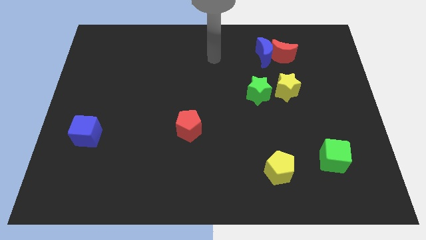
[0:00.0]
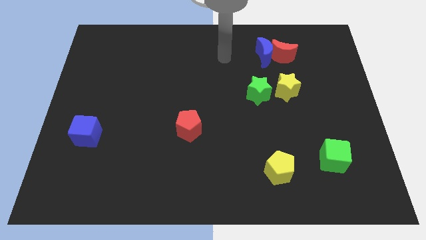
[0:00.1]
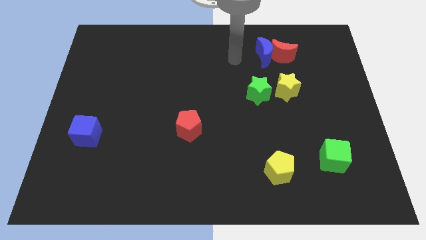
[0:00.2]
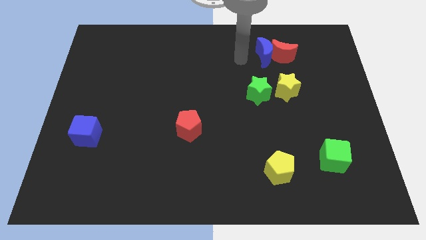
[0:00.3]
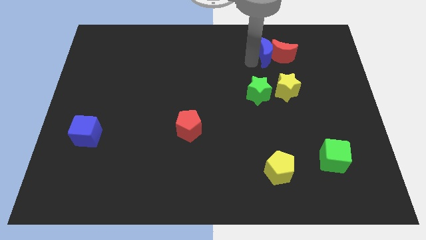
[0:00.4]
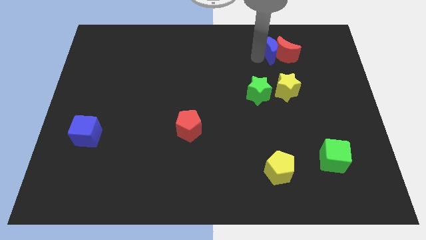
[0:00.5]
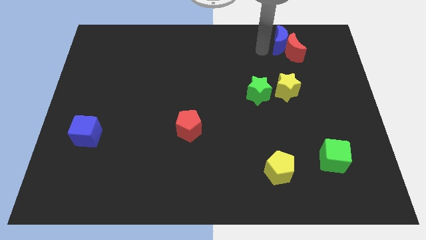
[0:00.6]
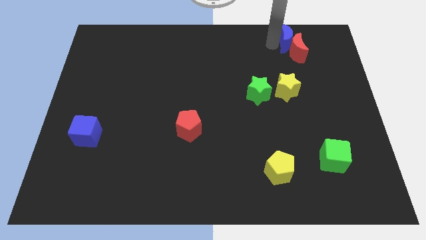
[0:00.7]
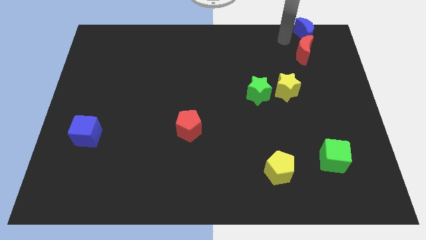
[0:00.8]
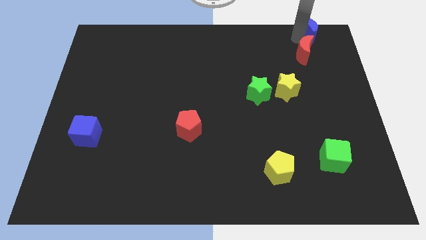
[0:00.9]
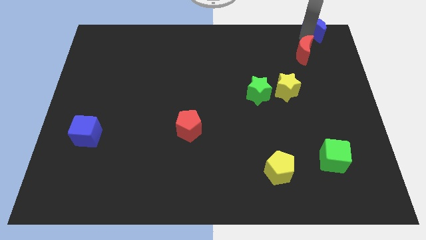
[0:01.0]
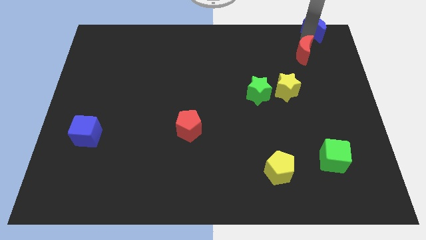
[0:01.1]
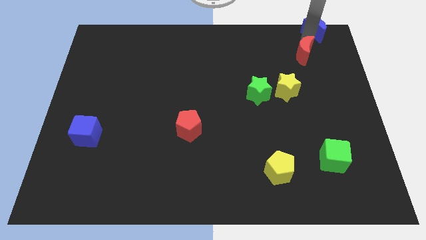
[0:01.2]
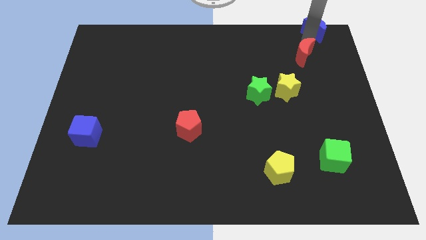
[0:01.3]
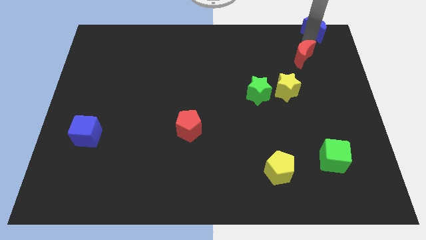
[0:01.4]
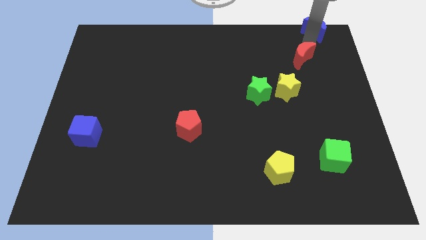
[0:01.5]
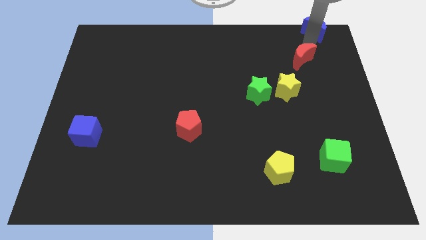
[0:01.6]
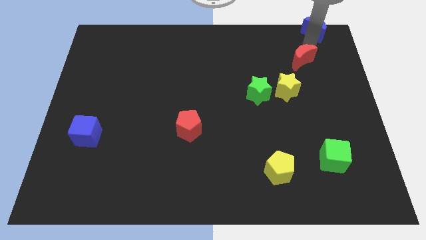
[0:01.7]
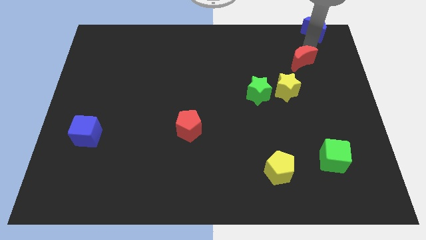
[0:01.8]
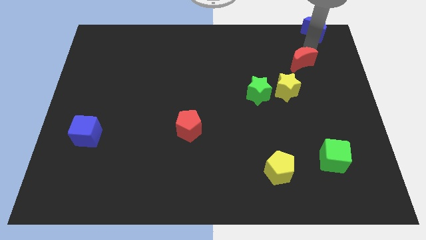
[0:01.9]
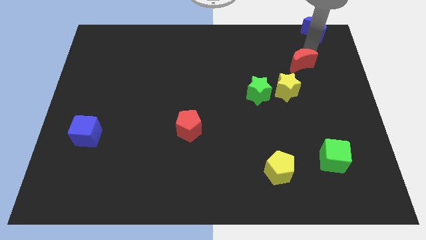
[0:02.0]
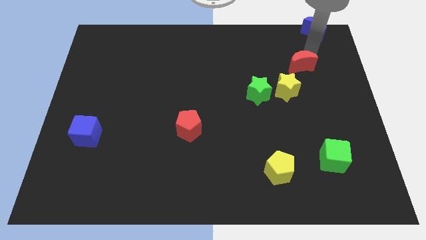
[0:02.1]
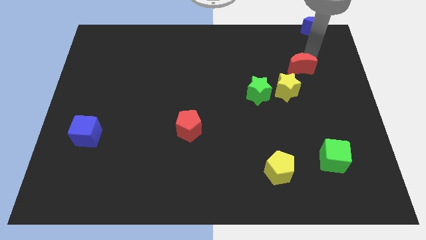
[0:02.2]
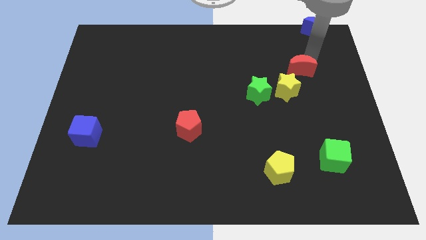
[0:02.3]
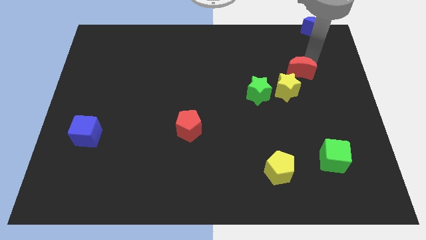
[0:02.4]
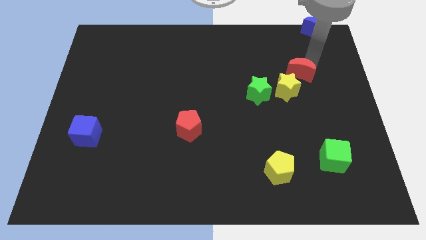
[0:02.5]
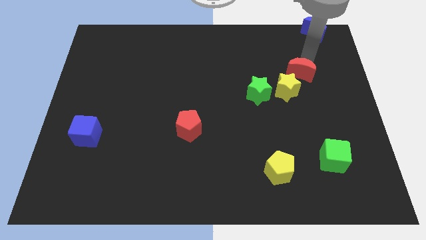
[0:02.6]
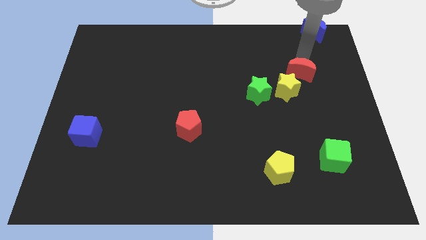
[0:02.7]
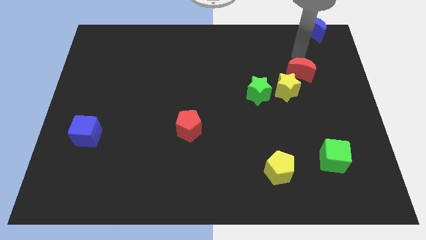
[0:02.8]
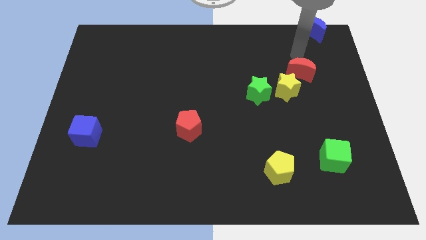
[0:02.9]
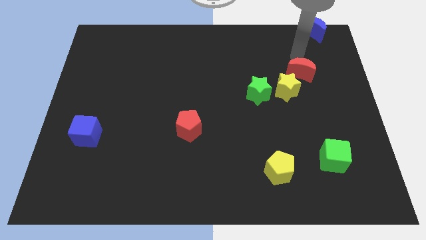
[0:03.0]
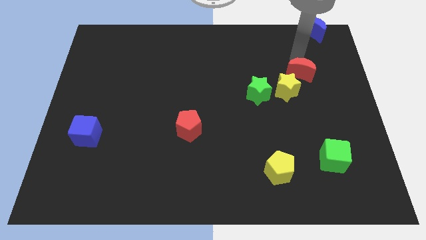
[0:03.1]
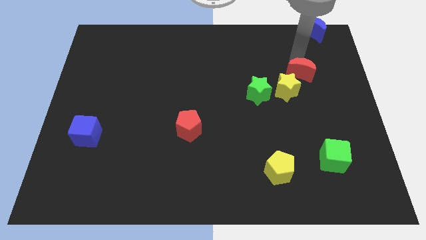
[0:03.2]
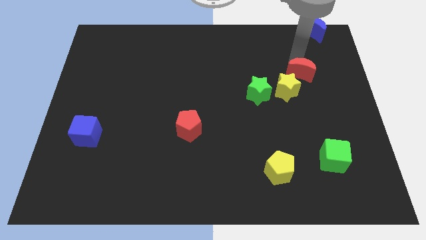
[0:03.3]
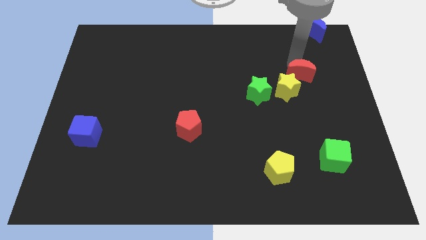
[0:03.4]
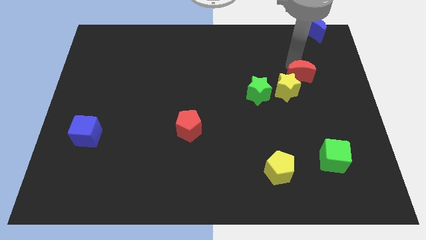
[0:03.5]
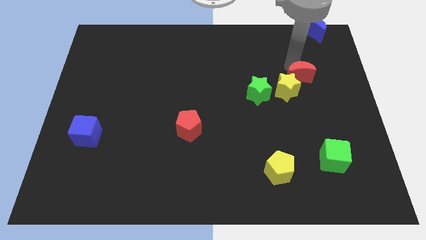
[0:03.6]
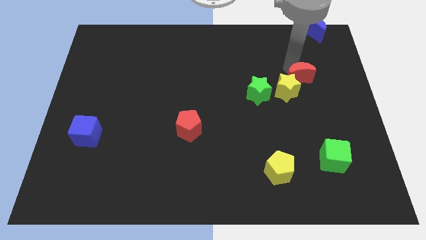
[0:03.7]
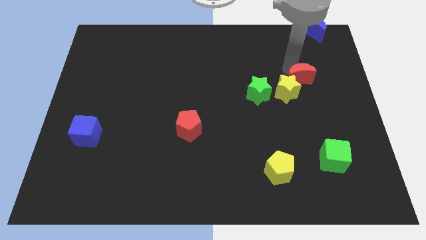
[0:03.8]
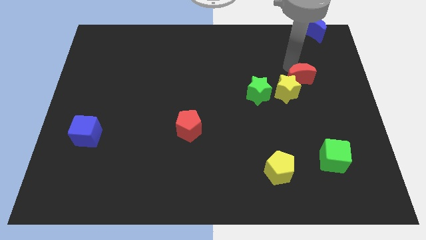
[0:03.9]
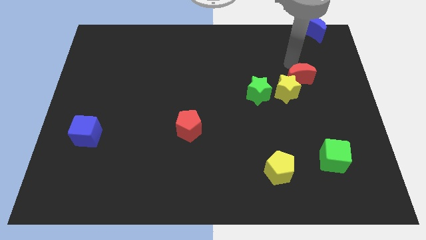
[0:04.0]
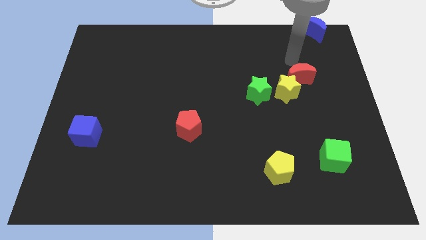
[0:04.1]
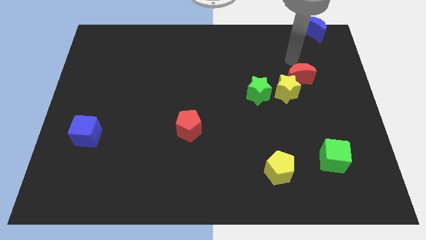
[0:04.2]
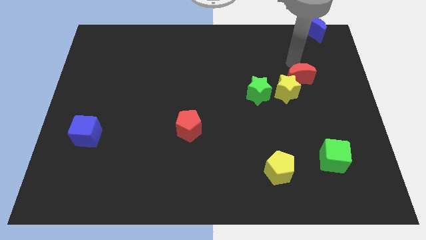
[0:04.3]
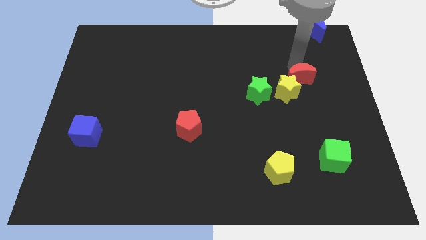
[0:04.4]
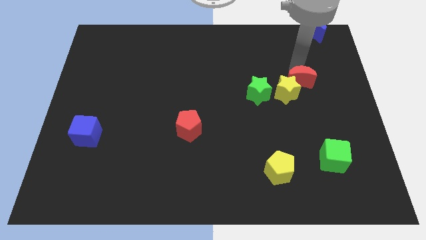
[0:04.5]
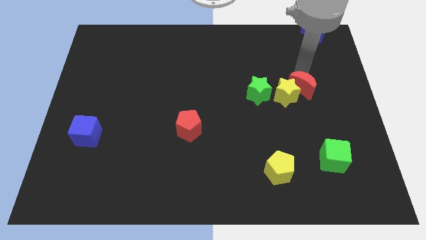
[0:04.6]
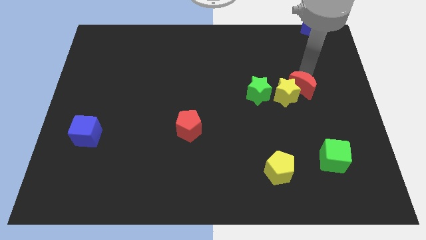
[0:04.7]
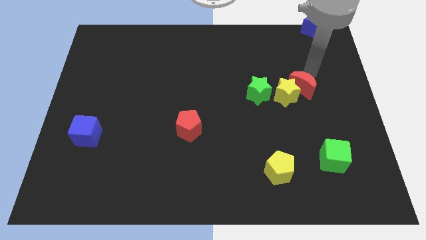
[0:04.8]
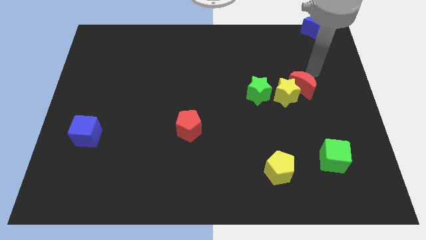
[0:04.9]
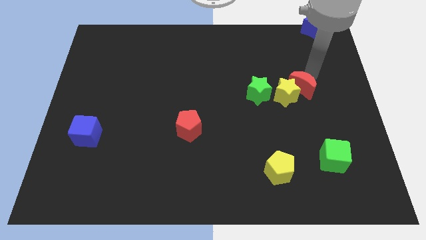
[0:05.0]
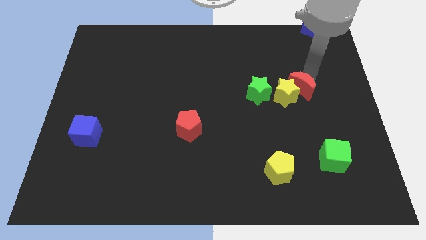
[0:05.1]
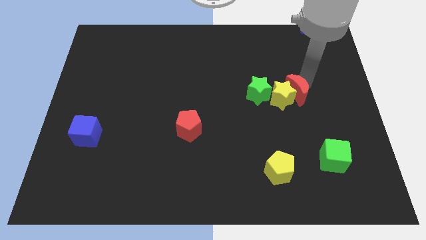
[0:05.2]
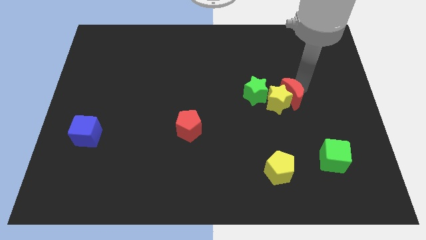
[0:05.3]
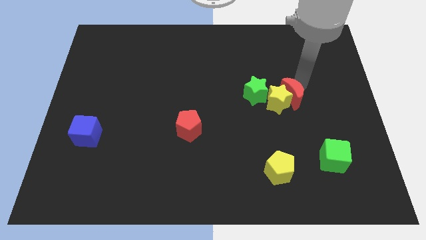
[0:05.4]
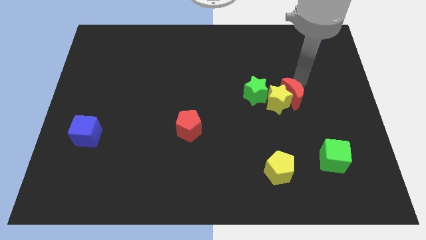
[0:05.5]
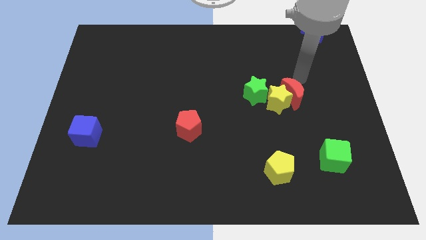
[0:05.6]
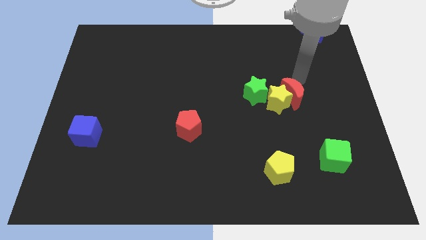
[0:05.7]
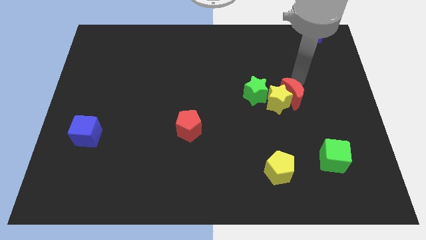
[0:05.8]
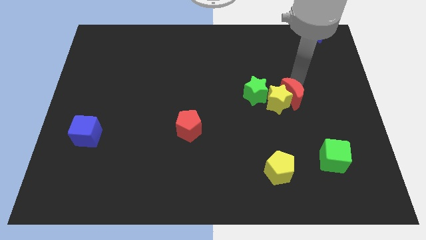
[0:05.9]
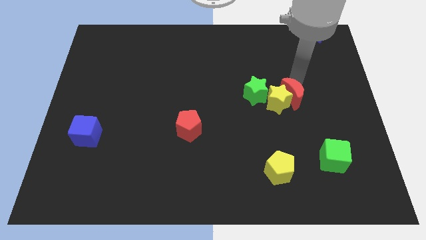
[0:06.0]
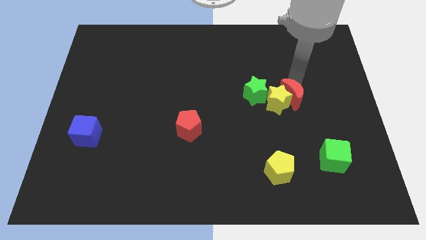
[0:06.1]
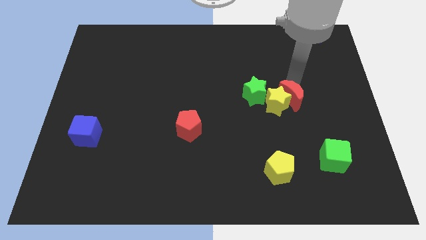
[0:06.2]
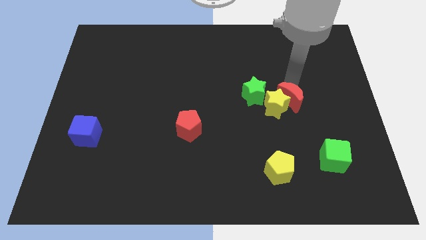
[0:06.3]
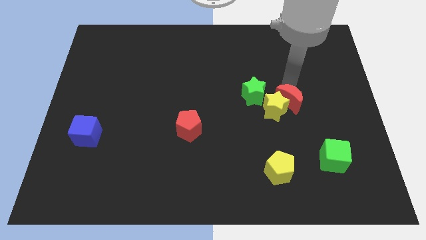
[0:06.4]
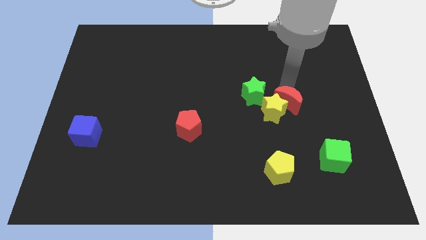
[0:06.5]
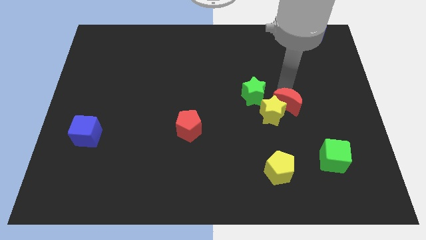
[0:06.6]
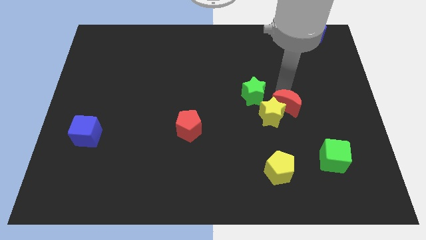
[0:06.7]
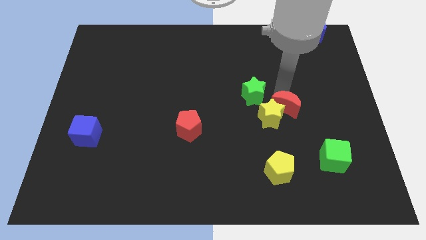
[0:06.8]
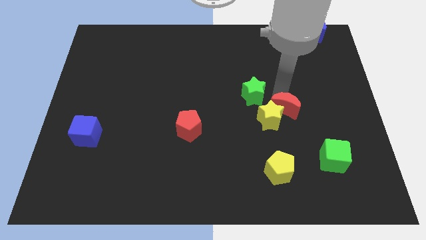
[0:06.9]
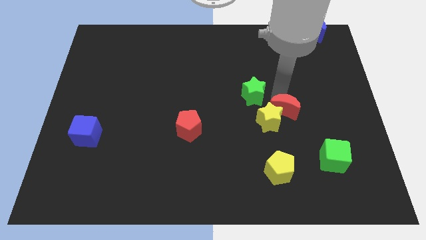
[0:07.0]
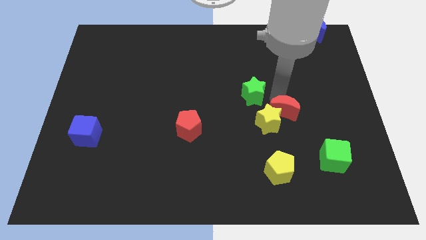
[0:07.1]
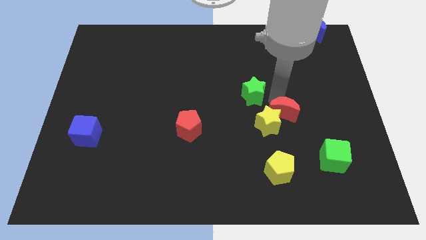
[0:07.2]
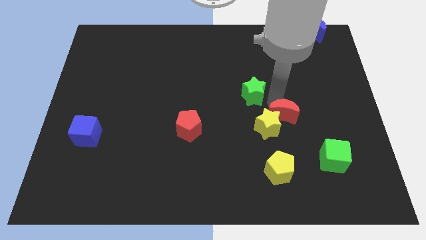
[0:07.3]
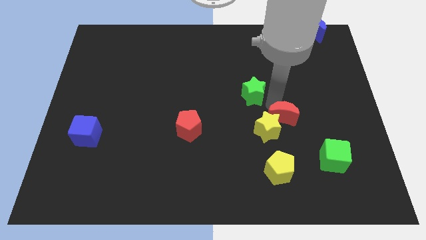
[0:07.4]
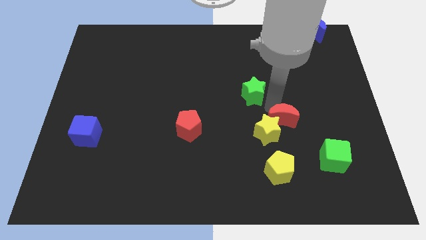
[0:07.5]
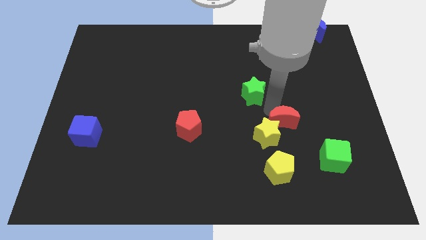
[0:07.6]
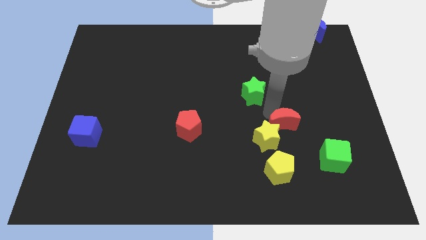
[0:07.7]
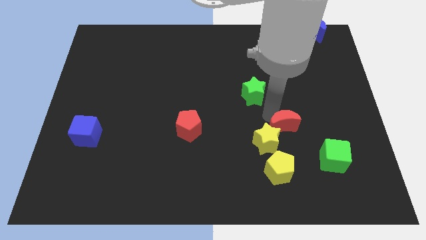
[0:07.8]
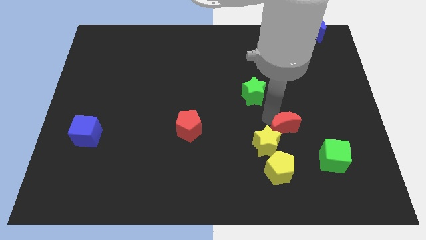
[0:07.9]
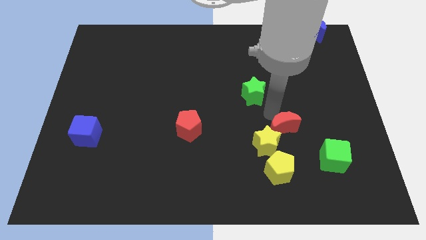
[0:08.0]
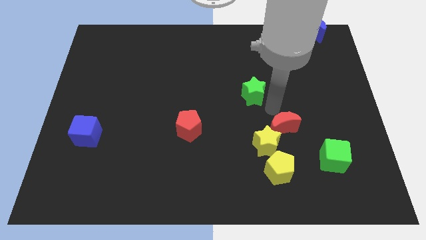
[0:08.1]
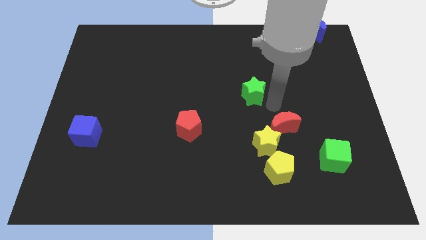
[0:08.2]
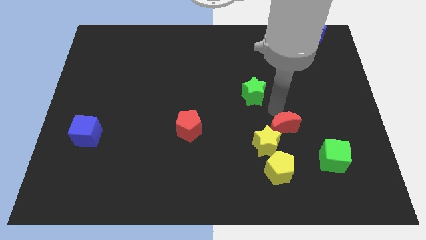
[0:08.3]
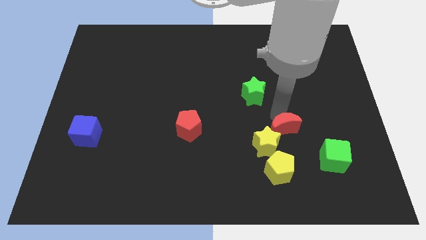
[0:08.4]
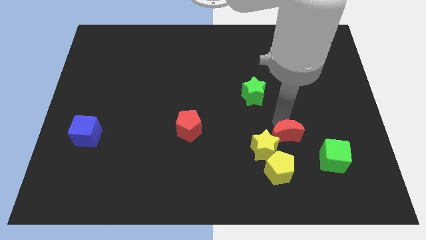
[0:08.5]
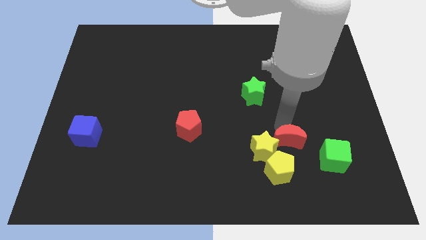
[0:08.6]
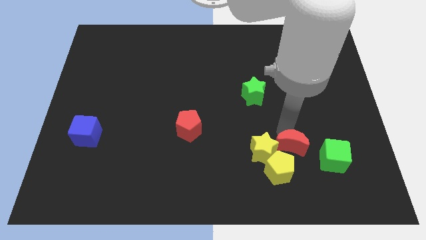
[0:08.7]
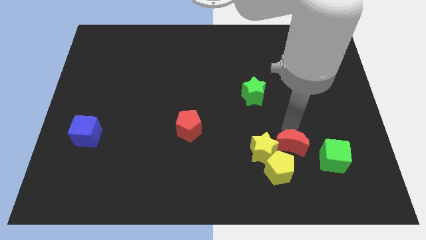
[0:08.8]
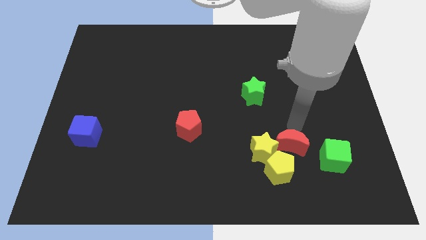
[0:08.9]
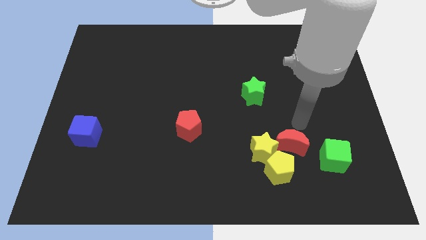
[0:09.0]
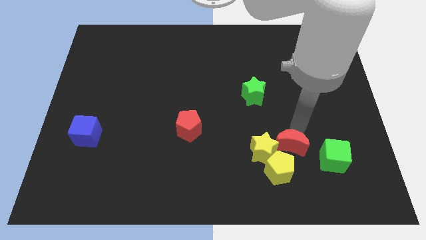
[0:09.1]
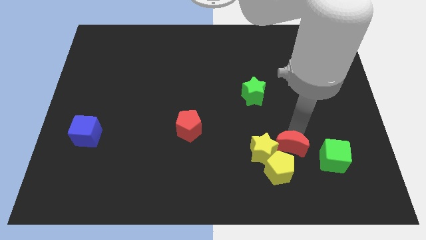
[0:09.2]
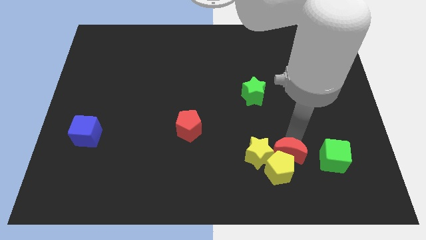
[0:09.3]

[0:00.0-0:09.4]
slide the red moon next to the yellow pentagon
